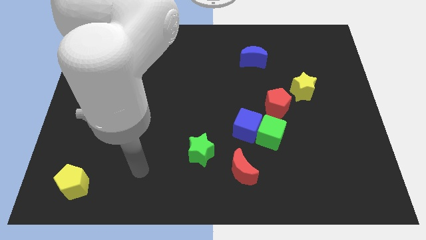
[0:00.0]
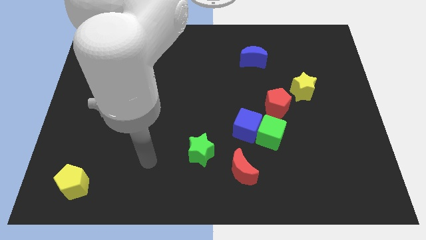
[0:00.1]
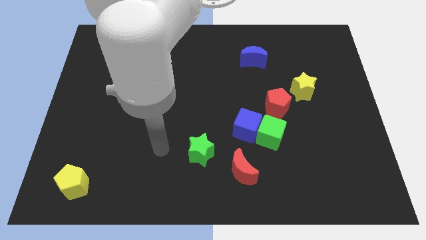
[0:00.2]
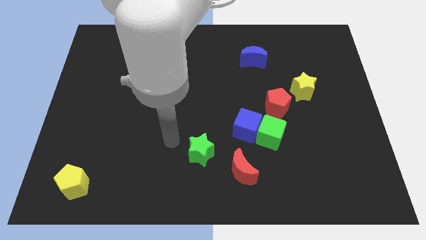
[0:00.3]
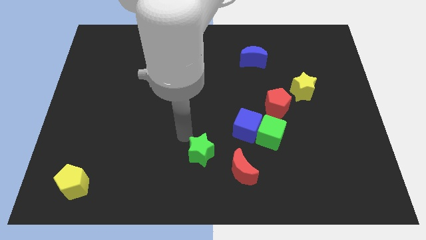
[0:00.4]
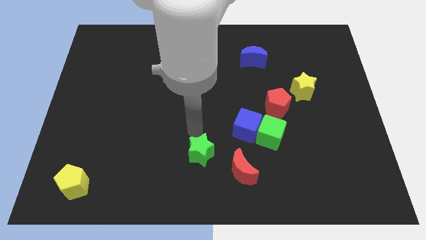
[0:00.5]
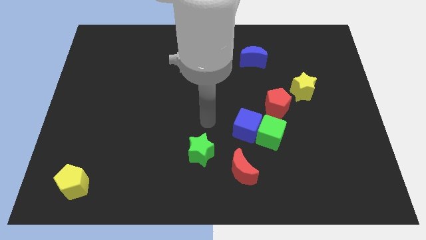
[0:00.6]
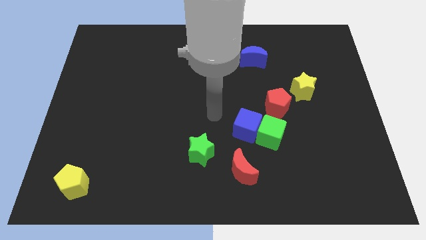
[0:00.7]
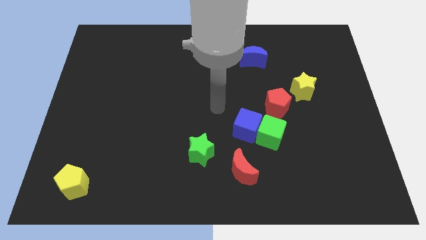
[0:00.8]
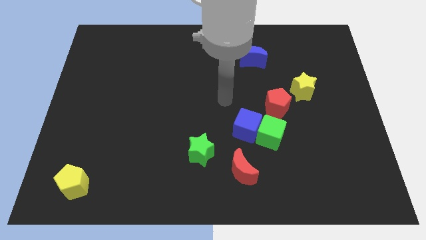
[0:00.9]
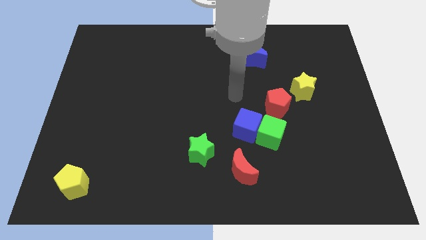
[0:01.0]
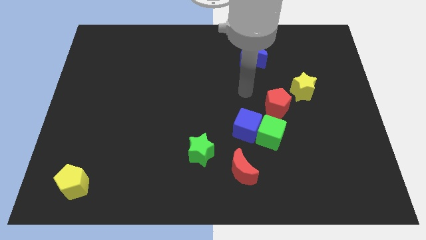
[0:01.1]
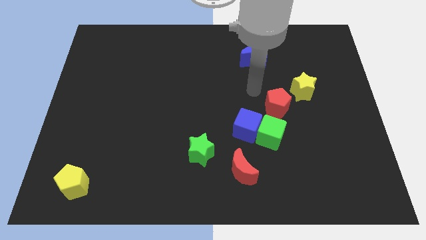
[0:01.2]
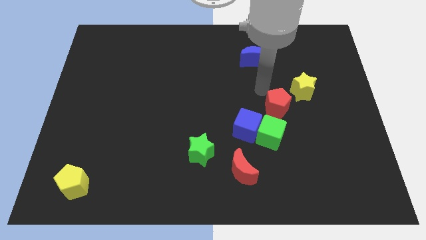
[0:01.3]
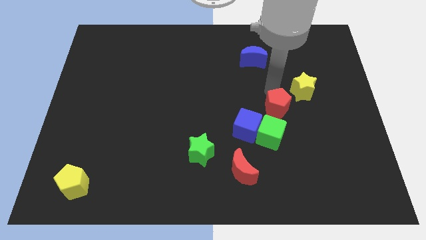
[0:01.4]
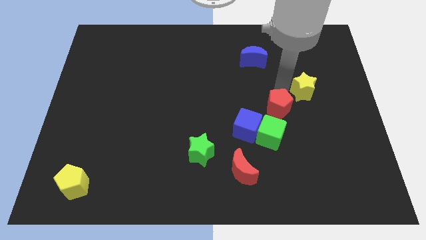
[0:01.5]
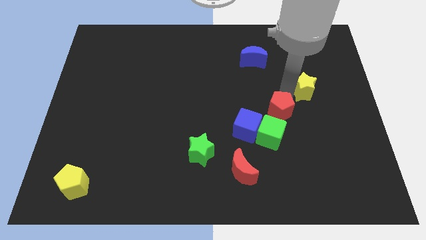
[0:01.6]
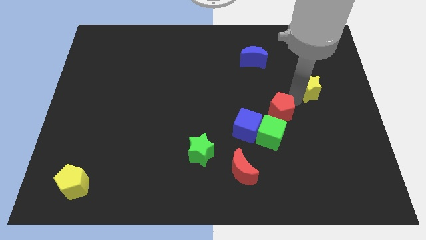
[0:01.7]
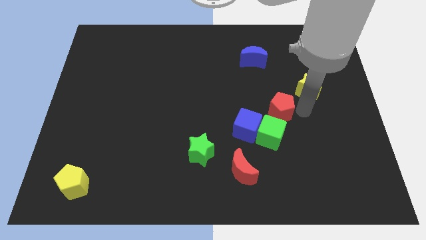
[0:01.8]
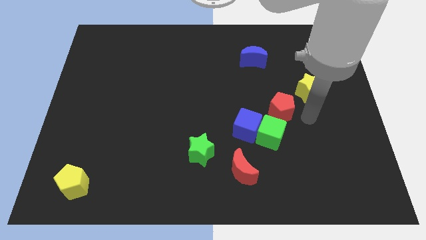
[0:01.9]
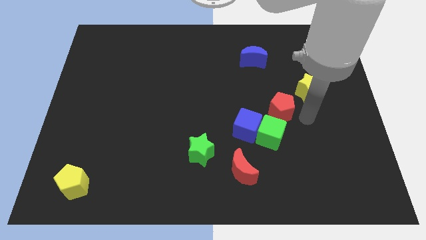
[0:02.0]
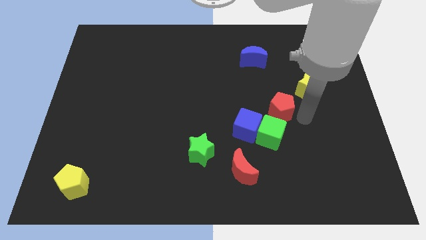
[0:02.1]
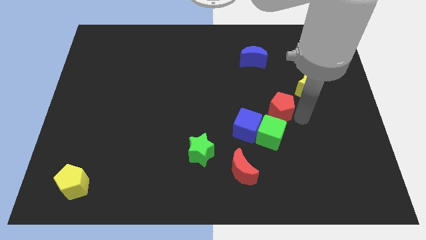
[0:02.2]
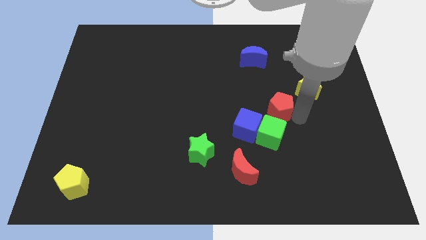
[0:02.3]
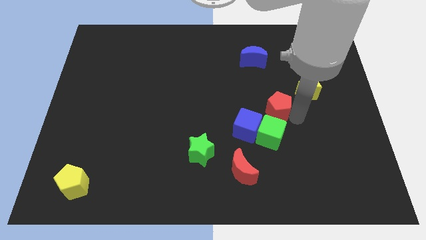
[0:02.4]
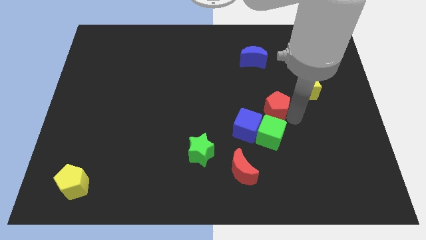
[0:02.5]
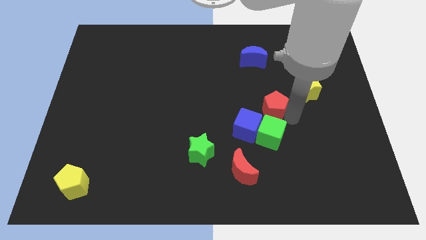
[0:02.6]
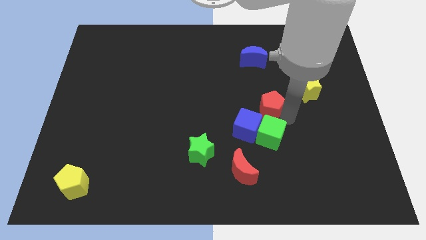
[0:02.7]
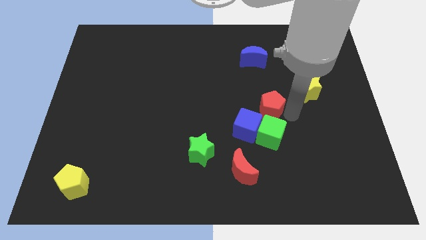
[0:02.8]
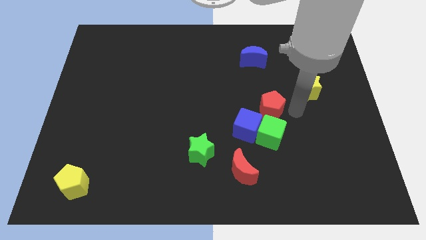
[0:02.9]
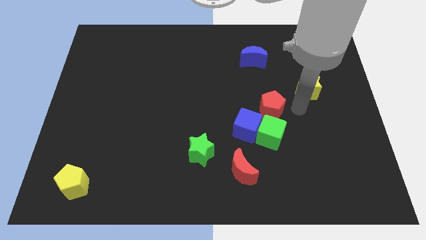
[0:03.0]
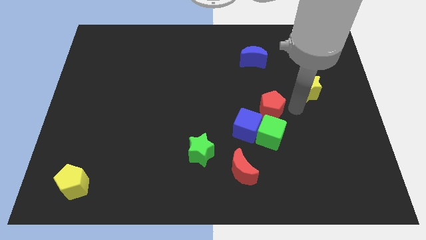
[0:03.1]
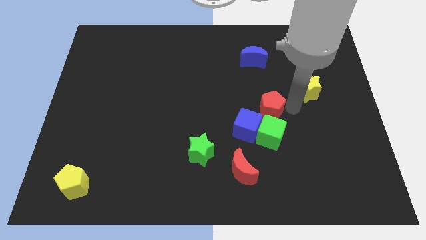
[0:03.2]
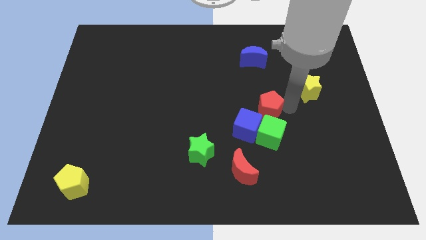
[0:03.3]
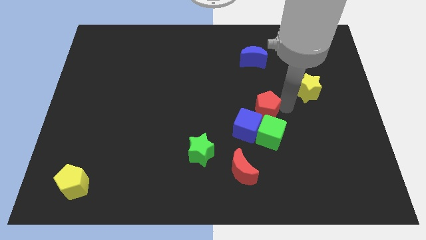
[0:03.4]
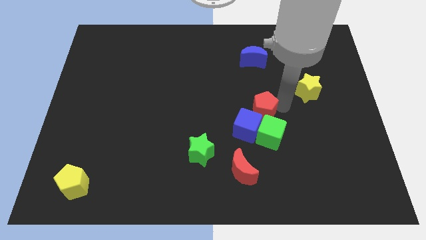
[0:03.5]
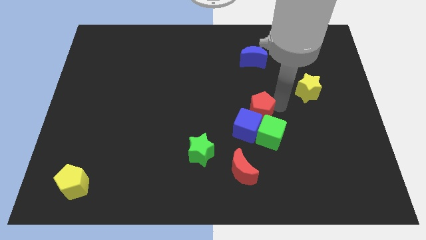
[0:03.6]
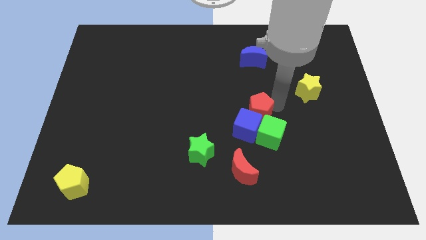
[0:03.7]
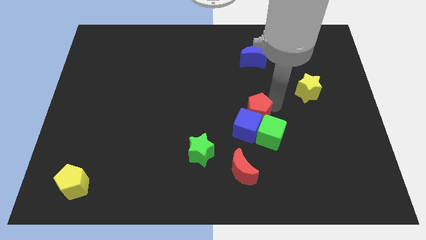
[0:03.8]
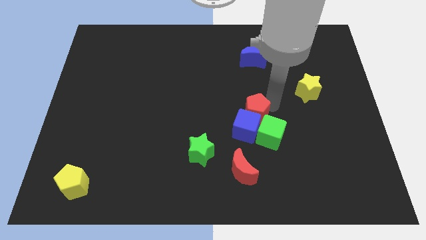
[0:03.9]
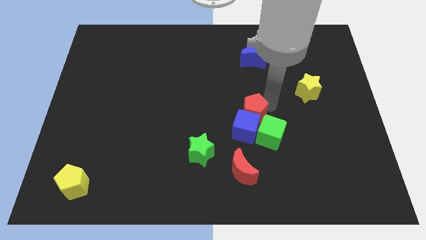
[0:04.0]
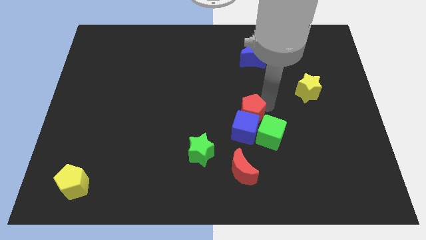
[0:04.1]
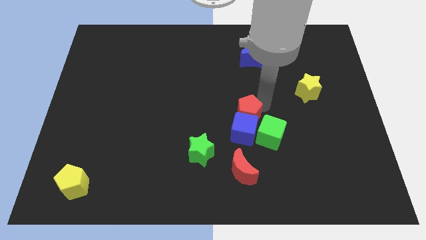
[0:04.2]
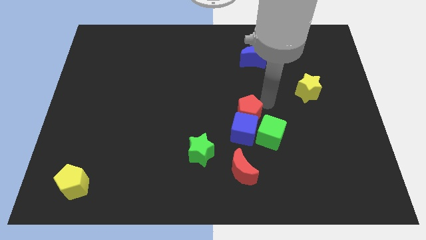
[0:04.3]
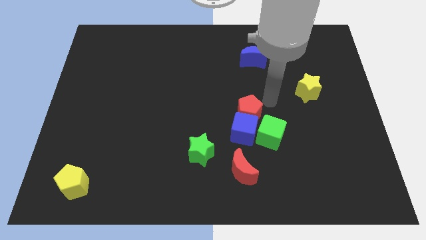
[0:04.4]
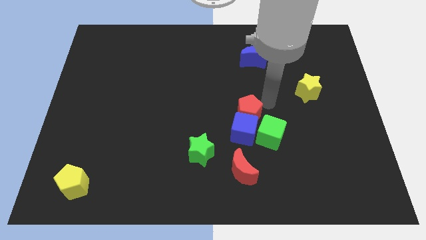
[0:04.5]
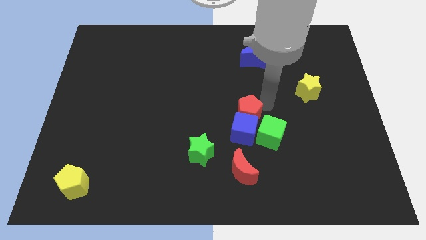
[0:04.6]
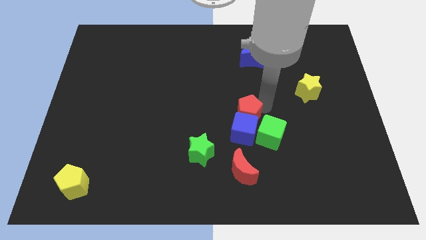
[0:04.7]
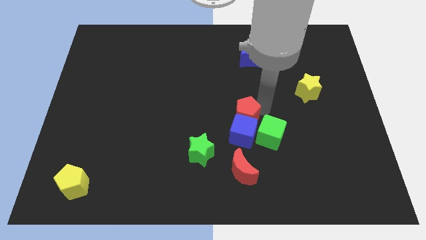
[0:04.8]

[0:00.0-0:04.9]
slide the red pentagon downwards and left a little

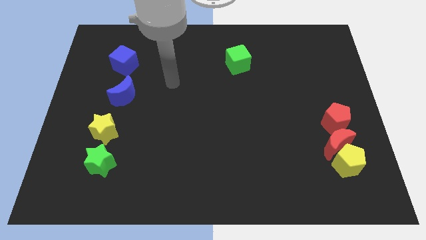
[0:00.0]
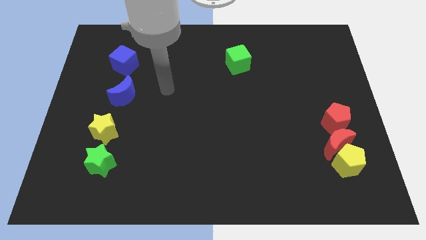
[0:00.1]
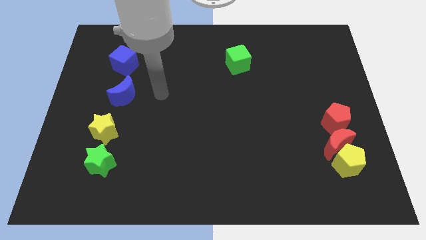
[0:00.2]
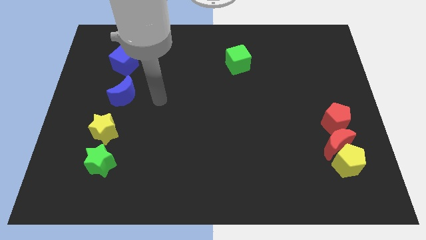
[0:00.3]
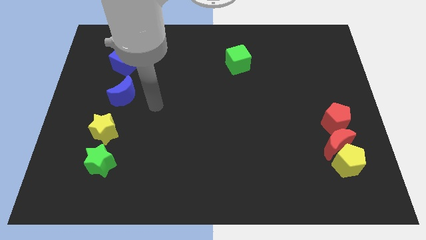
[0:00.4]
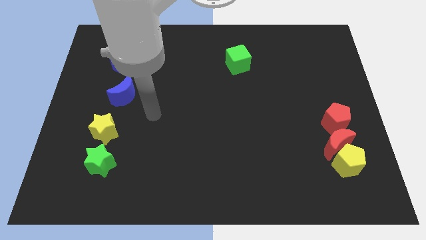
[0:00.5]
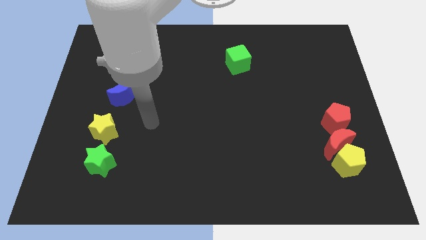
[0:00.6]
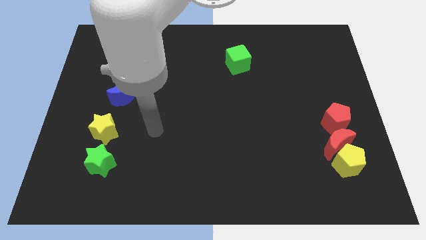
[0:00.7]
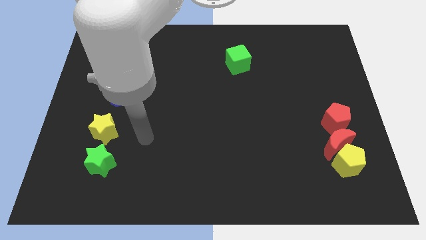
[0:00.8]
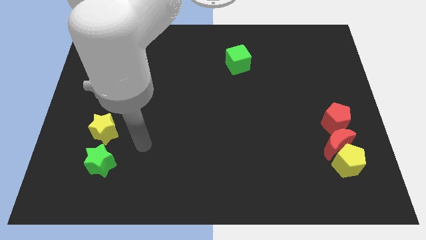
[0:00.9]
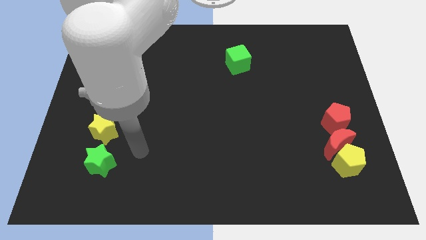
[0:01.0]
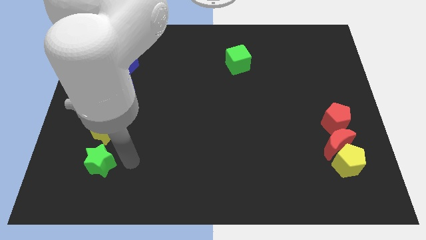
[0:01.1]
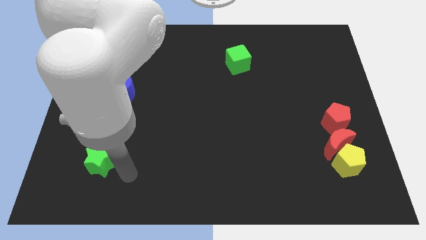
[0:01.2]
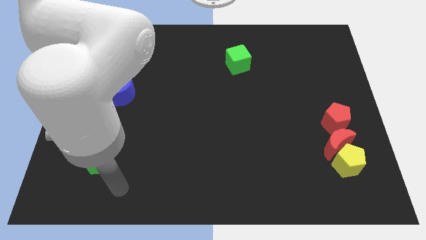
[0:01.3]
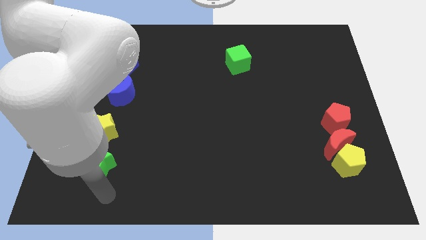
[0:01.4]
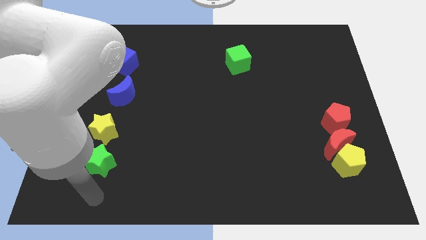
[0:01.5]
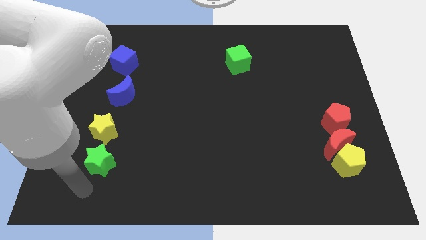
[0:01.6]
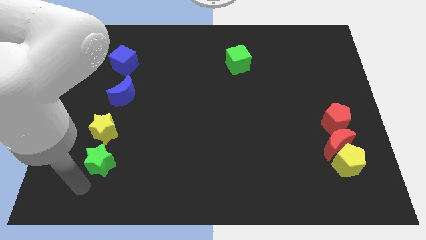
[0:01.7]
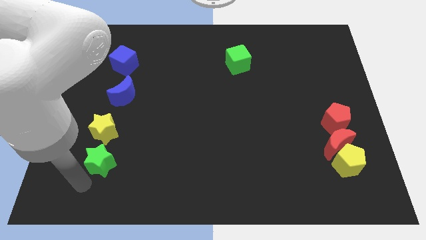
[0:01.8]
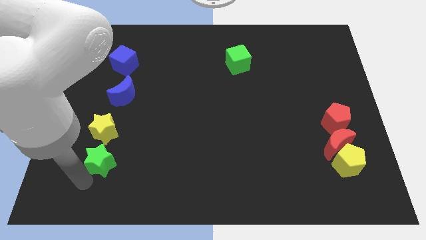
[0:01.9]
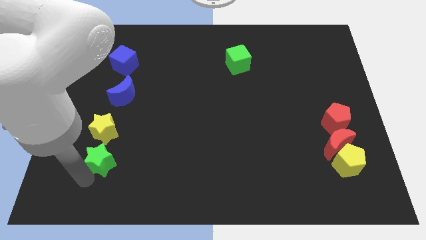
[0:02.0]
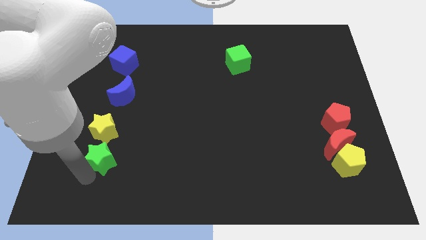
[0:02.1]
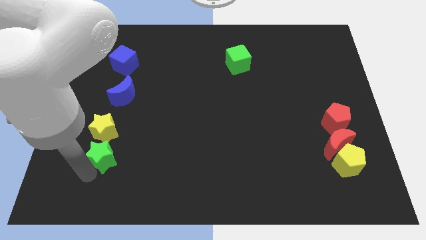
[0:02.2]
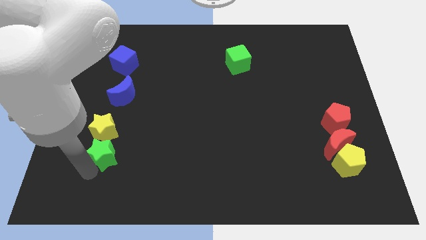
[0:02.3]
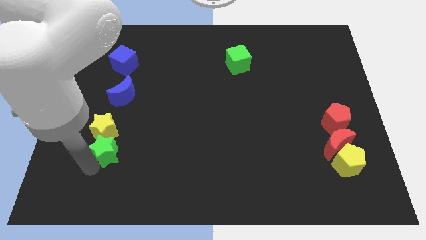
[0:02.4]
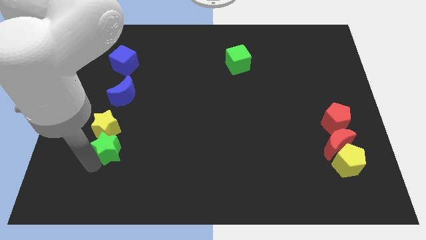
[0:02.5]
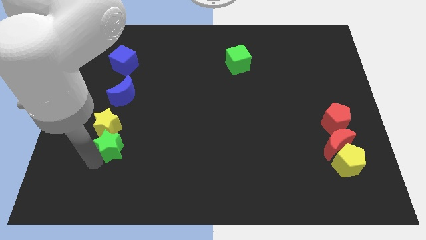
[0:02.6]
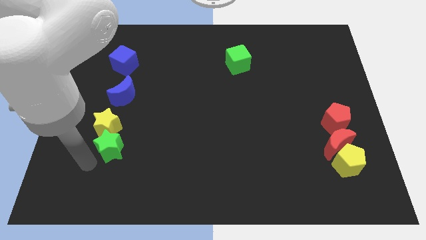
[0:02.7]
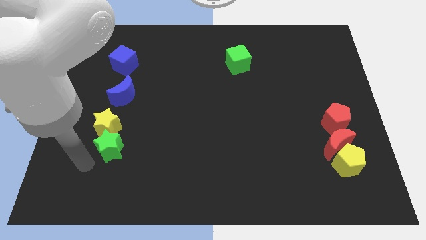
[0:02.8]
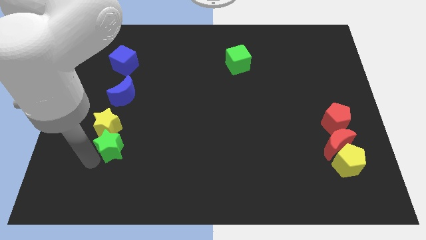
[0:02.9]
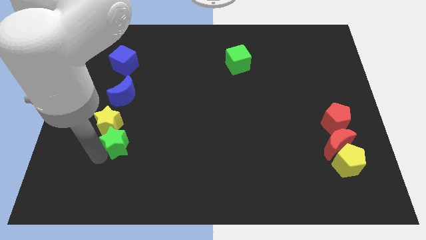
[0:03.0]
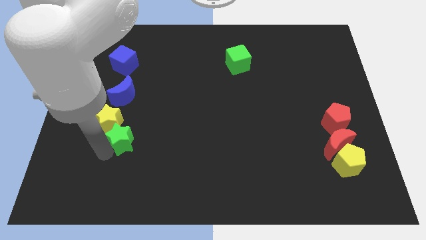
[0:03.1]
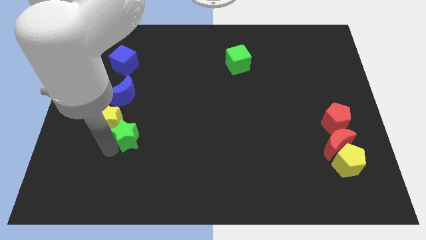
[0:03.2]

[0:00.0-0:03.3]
slightly move the green star diagonally up and to the right
